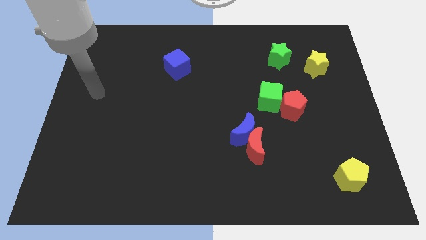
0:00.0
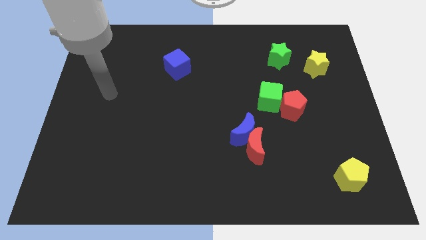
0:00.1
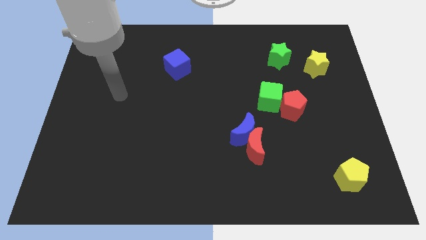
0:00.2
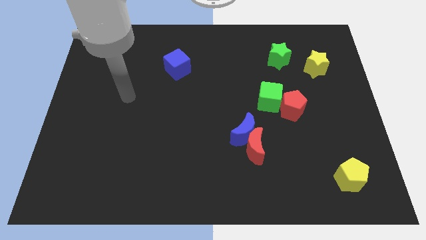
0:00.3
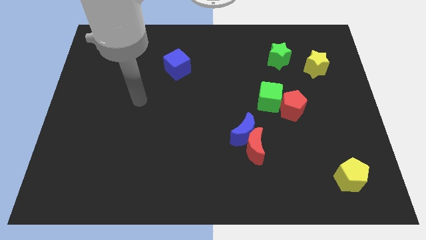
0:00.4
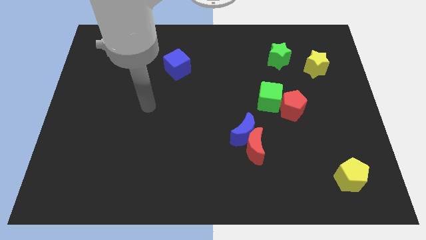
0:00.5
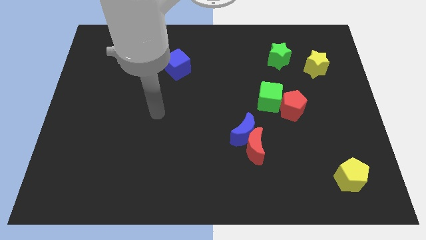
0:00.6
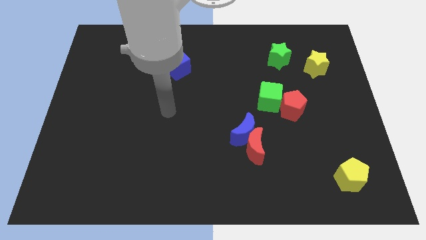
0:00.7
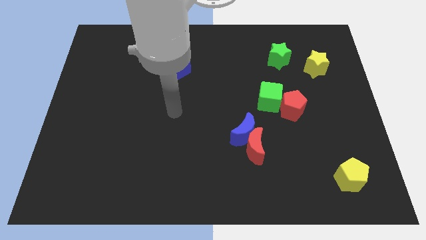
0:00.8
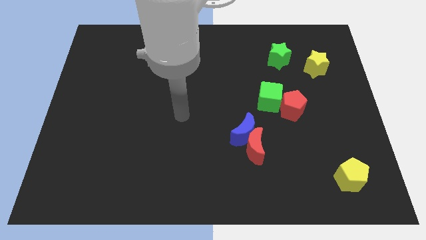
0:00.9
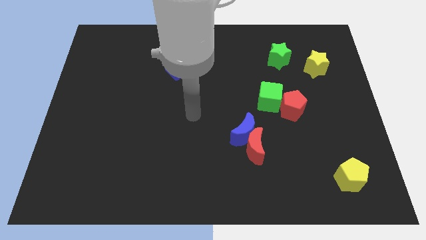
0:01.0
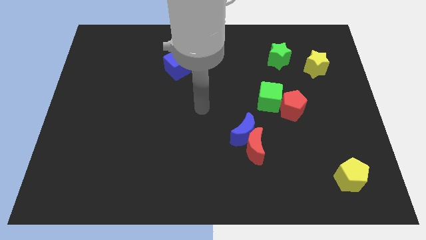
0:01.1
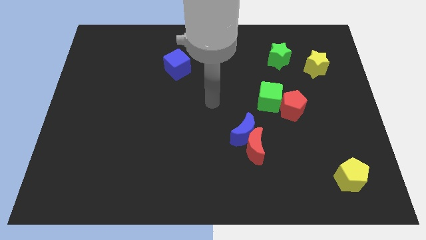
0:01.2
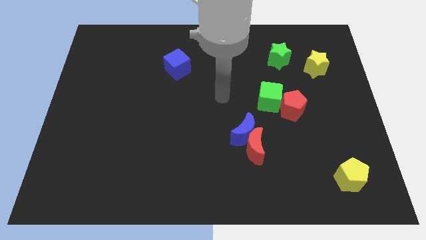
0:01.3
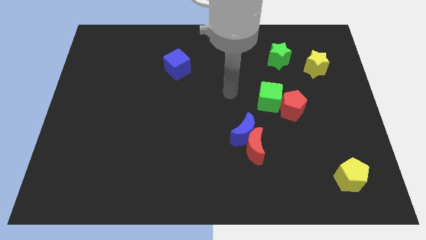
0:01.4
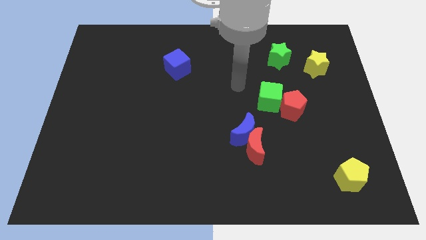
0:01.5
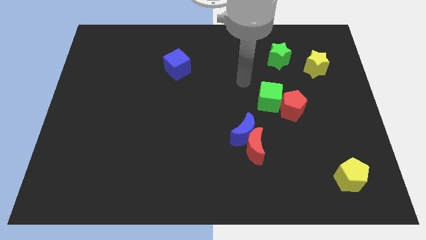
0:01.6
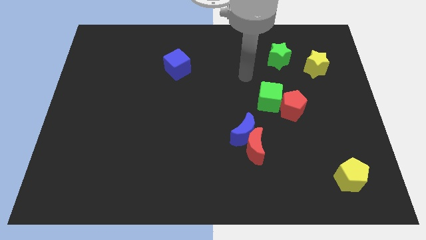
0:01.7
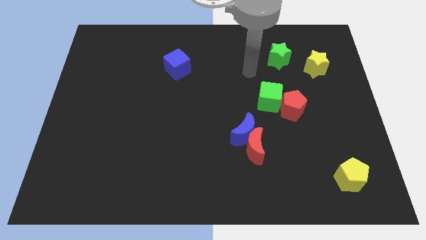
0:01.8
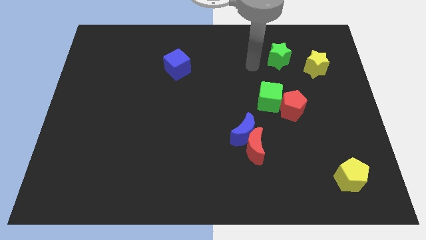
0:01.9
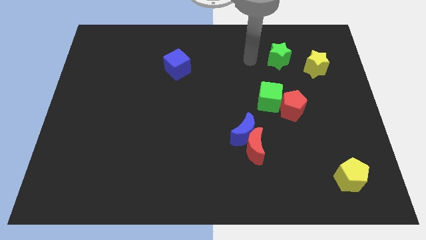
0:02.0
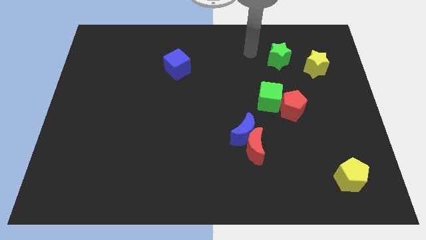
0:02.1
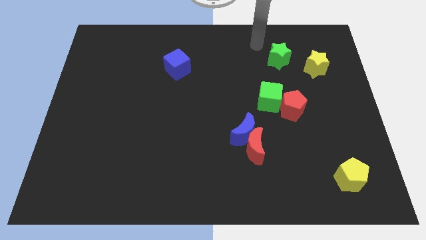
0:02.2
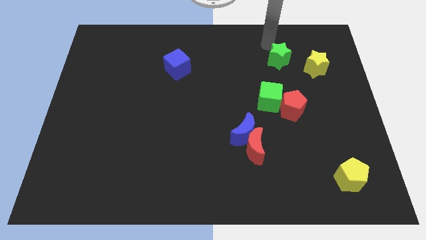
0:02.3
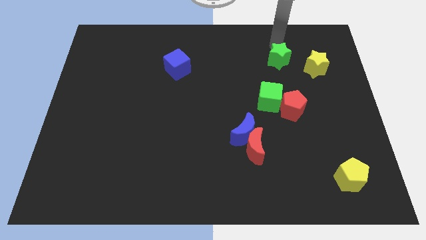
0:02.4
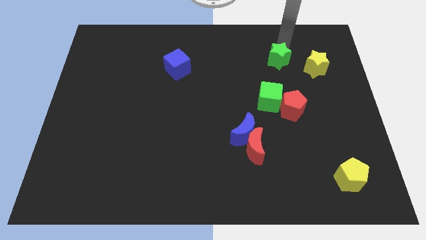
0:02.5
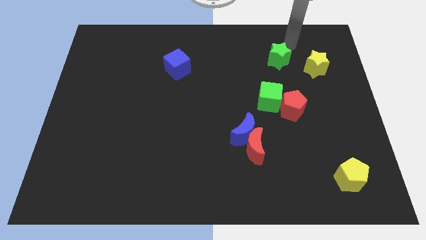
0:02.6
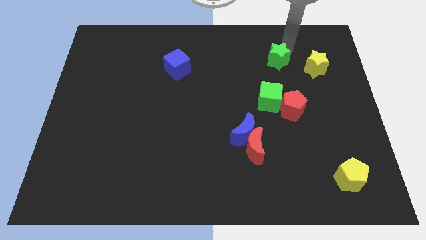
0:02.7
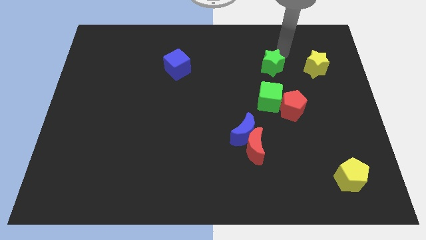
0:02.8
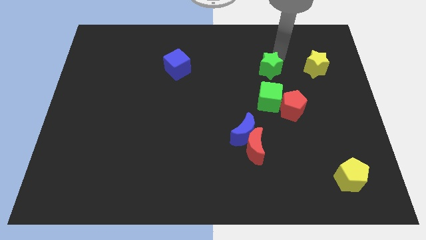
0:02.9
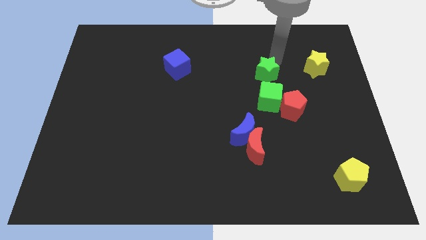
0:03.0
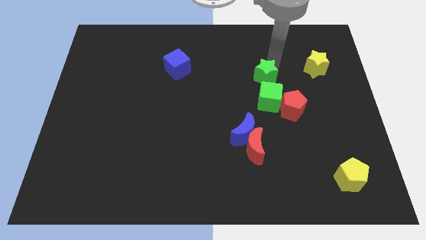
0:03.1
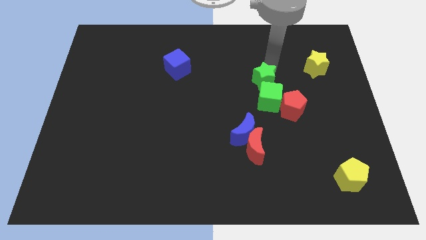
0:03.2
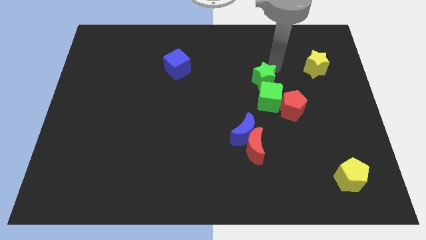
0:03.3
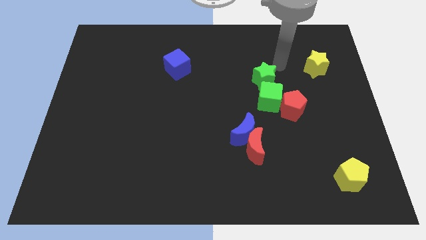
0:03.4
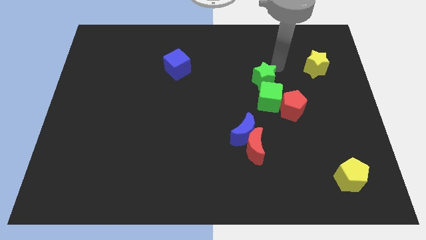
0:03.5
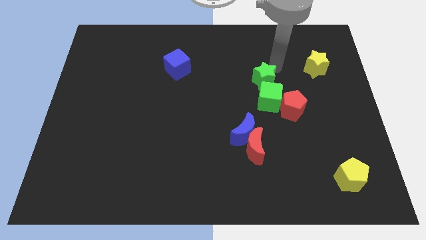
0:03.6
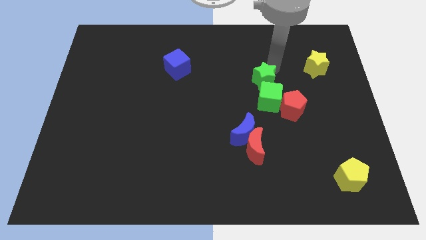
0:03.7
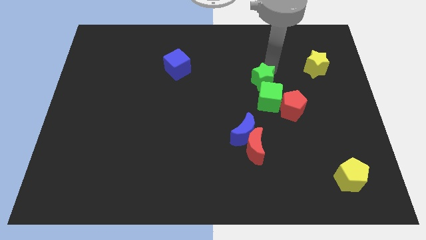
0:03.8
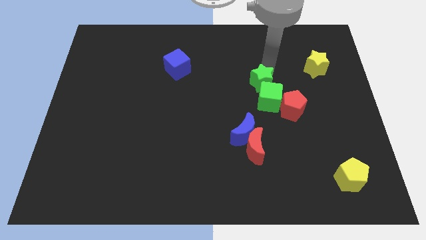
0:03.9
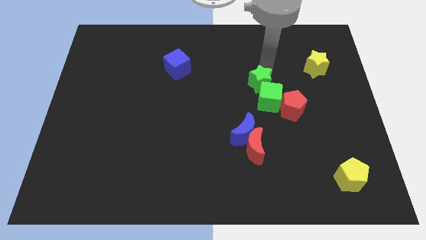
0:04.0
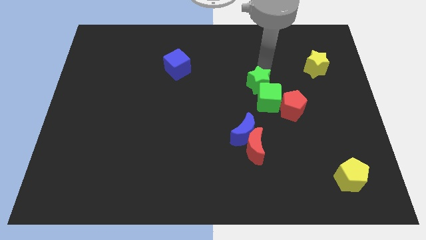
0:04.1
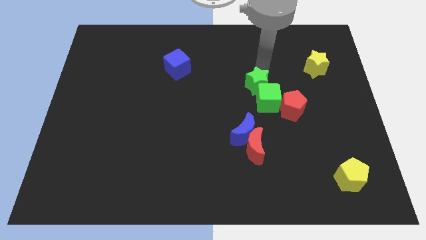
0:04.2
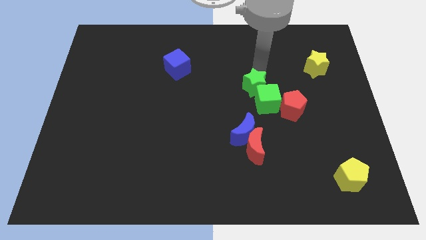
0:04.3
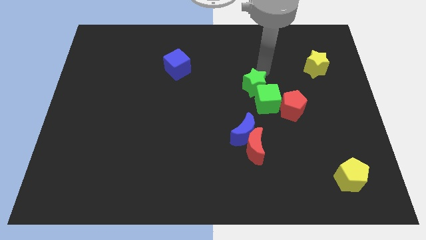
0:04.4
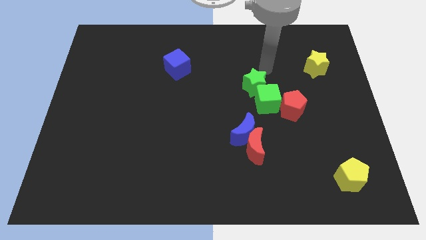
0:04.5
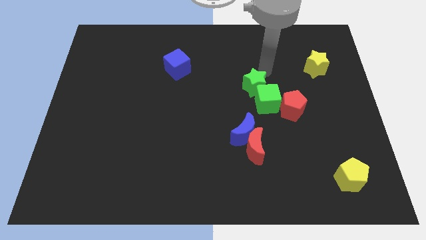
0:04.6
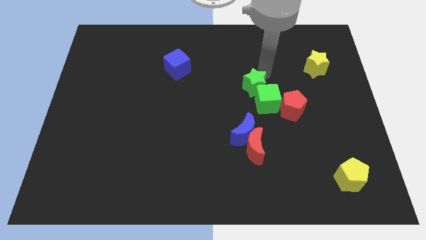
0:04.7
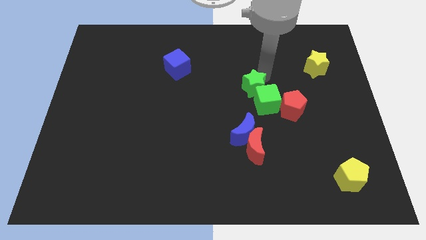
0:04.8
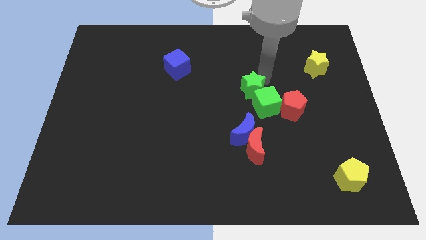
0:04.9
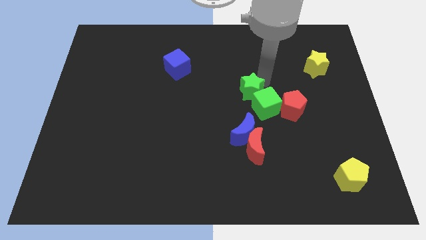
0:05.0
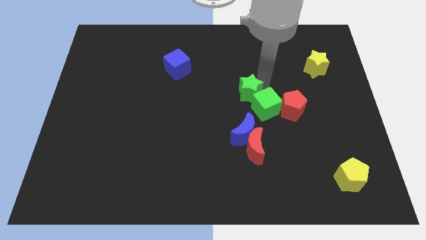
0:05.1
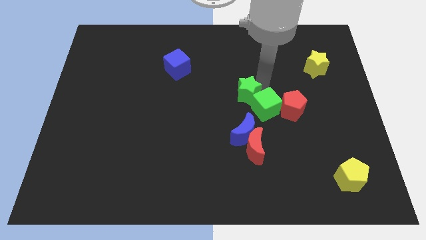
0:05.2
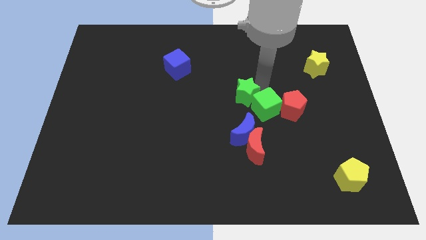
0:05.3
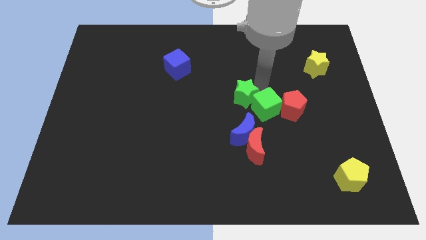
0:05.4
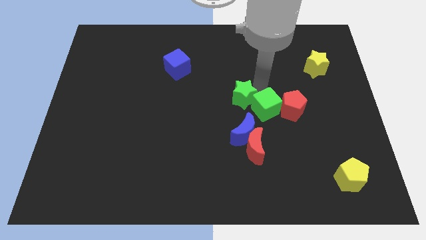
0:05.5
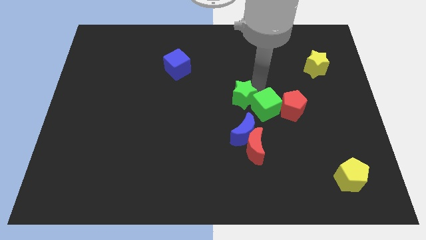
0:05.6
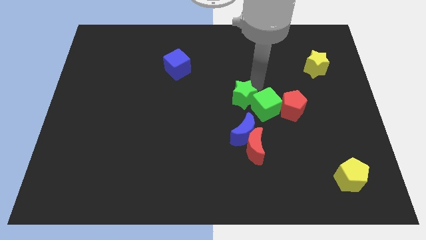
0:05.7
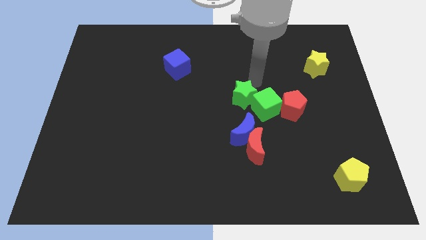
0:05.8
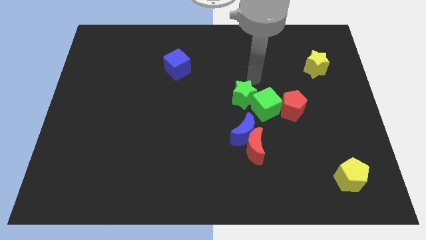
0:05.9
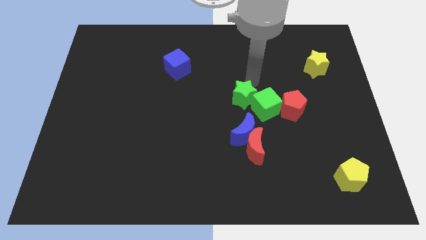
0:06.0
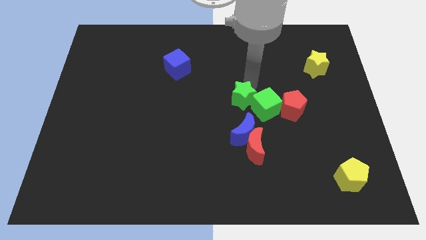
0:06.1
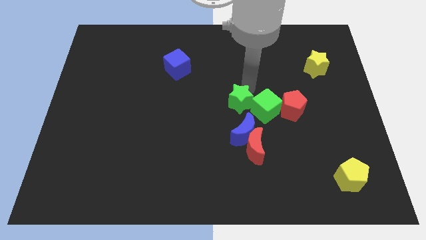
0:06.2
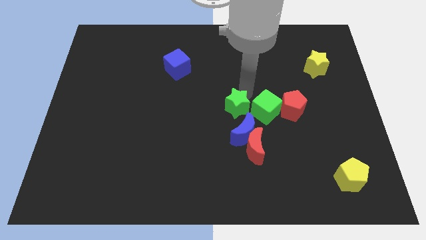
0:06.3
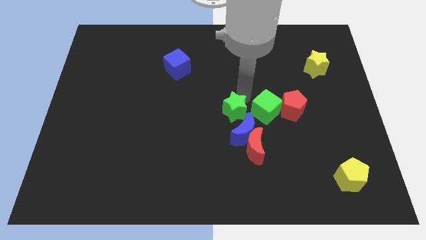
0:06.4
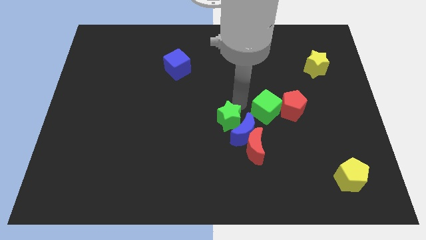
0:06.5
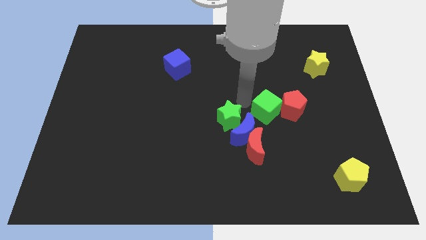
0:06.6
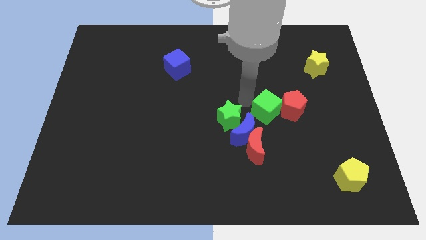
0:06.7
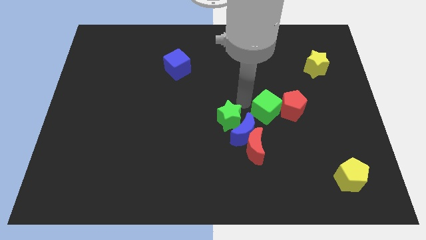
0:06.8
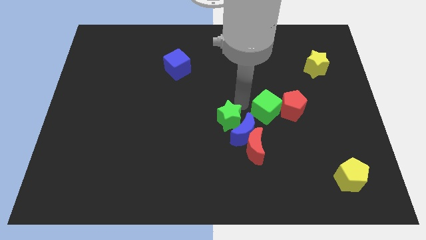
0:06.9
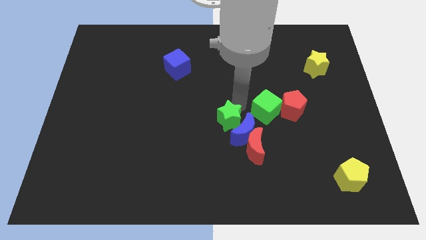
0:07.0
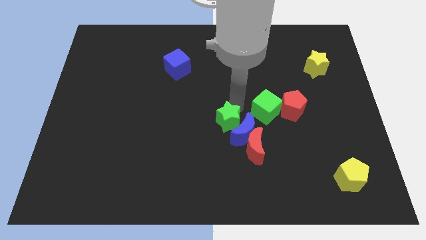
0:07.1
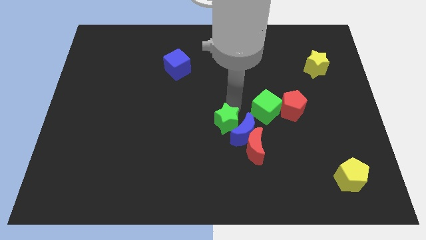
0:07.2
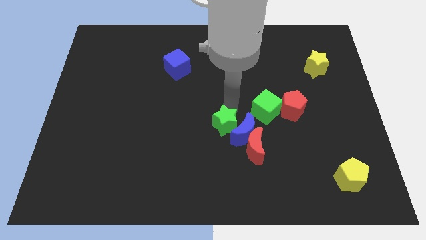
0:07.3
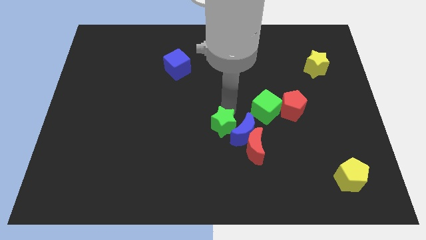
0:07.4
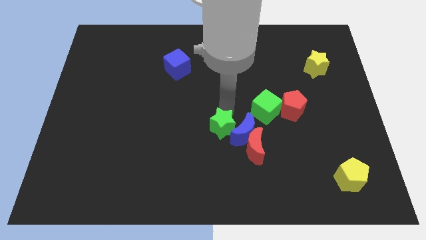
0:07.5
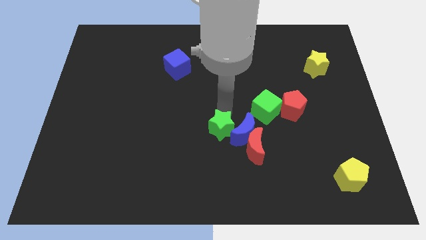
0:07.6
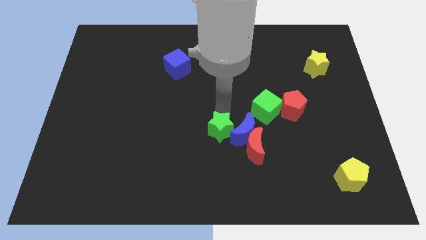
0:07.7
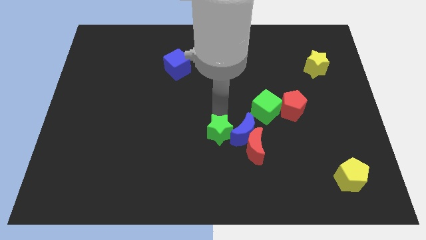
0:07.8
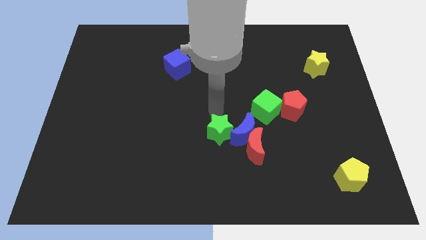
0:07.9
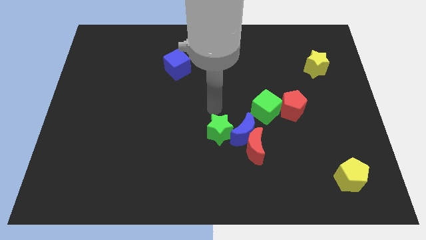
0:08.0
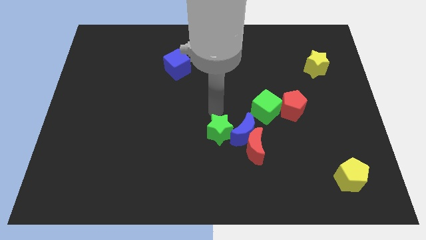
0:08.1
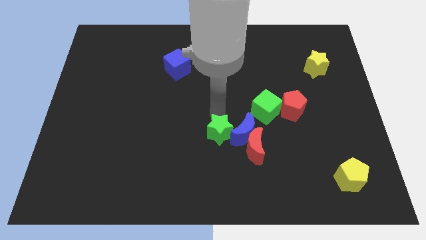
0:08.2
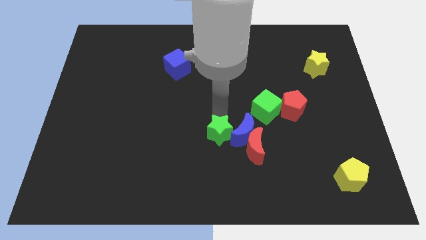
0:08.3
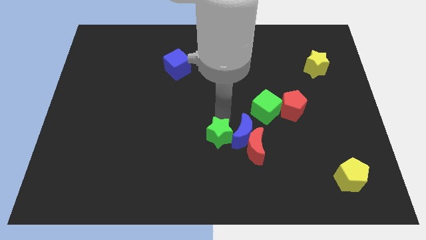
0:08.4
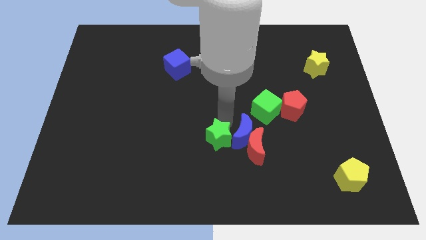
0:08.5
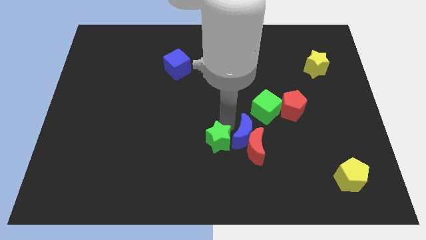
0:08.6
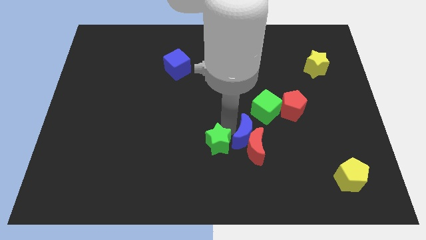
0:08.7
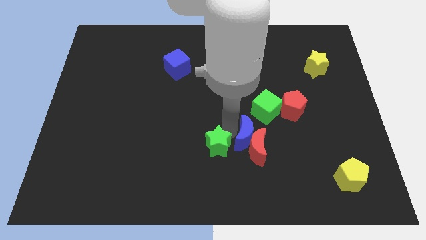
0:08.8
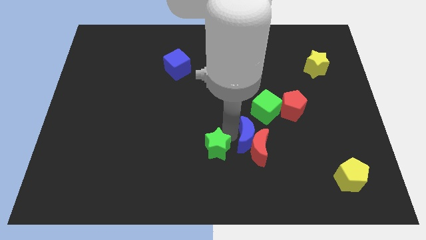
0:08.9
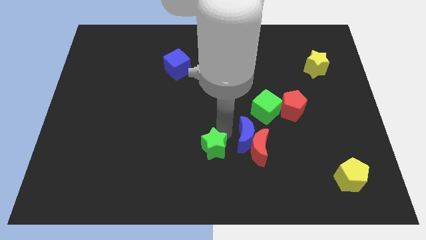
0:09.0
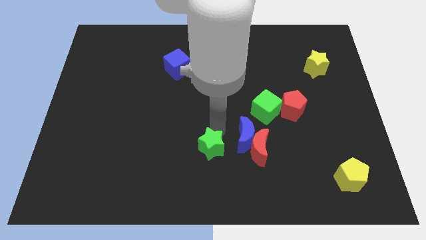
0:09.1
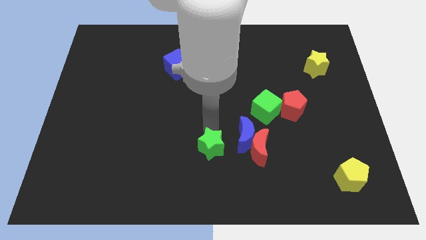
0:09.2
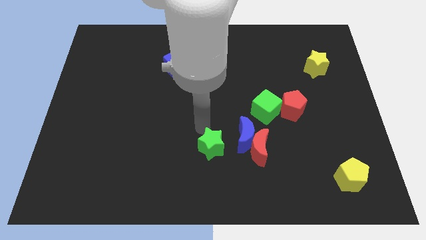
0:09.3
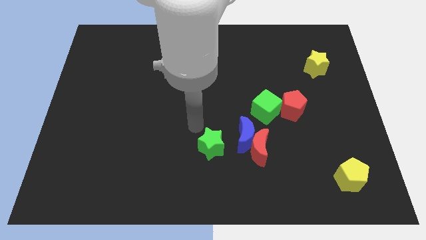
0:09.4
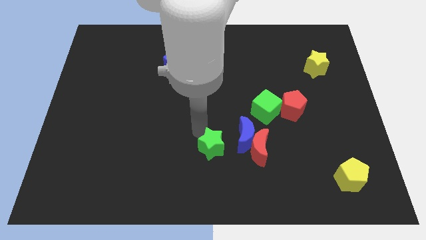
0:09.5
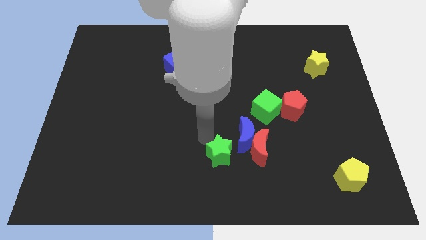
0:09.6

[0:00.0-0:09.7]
push the green star to the bottom left of the red moon
